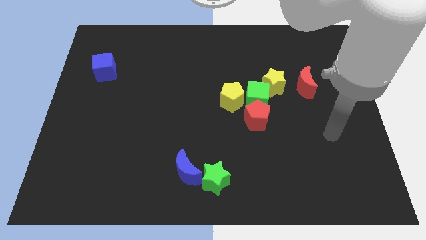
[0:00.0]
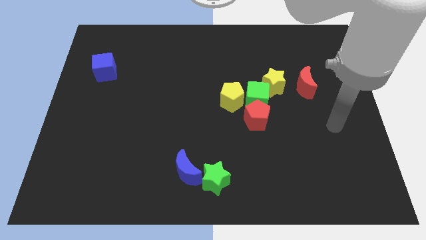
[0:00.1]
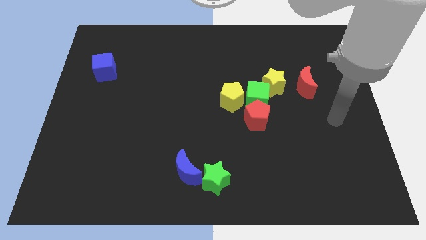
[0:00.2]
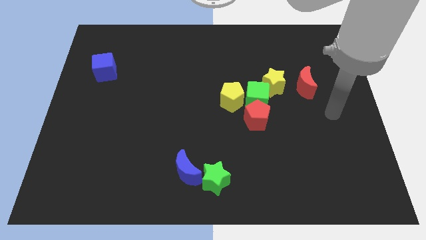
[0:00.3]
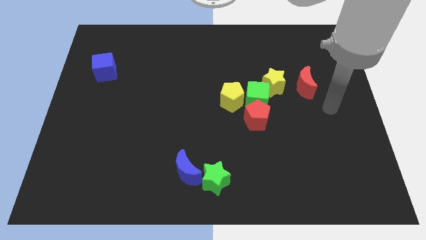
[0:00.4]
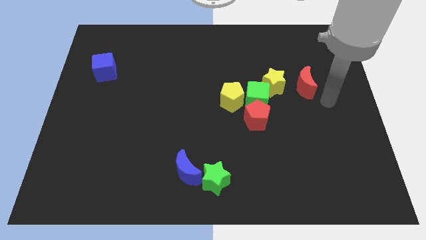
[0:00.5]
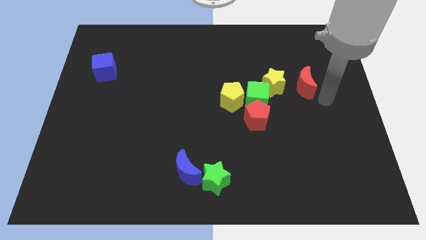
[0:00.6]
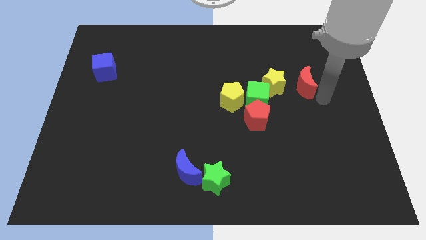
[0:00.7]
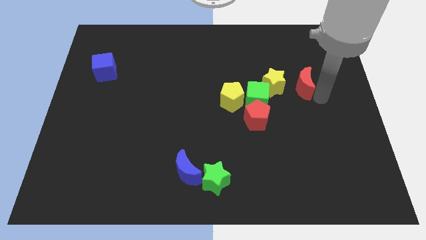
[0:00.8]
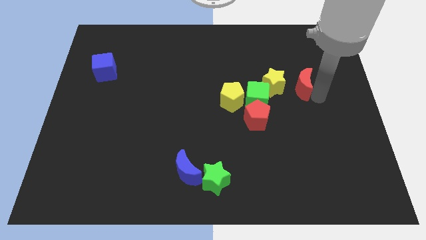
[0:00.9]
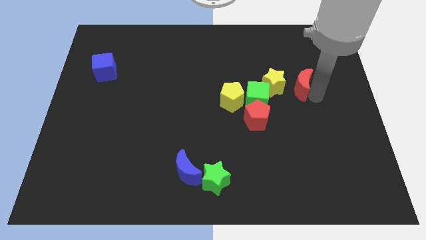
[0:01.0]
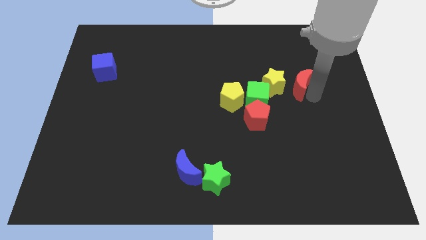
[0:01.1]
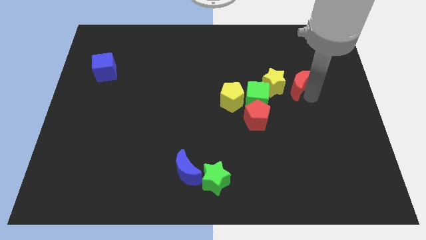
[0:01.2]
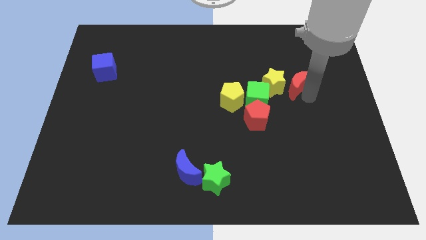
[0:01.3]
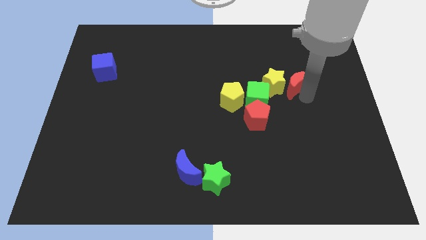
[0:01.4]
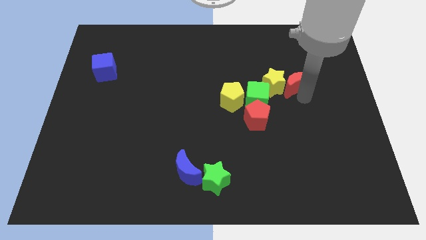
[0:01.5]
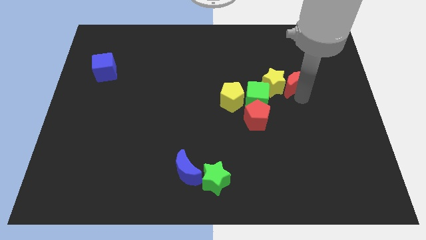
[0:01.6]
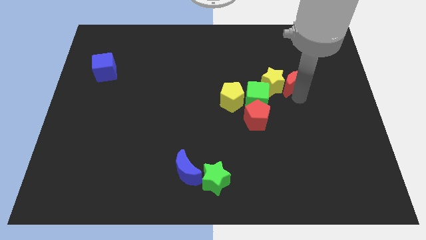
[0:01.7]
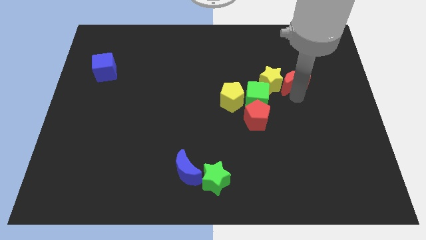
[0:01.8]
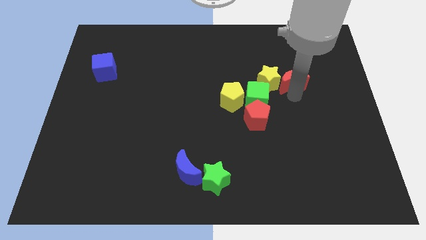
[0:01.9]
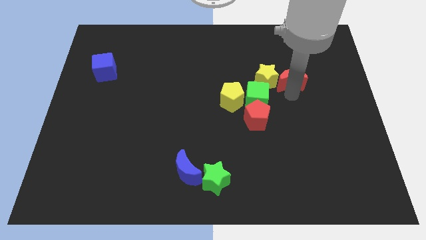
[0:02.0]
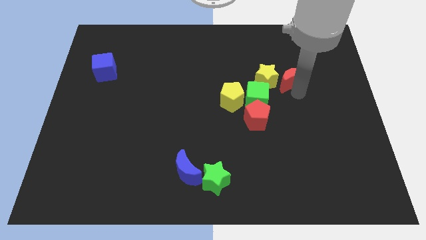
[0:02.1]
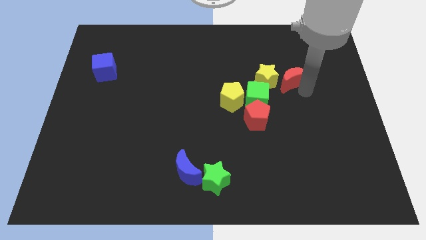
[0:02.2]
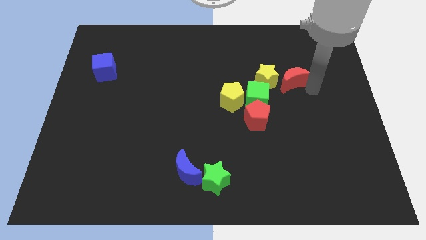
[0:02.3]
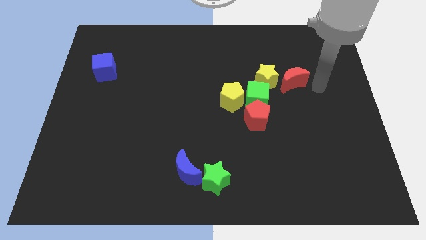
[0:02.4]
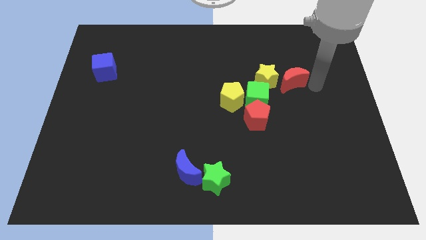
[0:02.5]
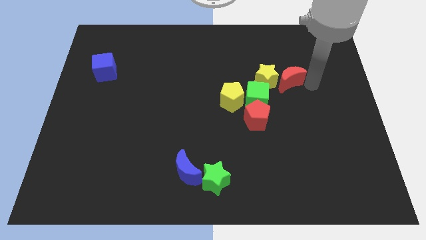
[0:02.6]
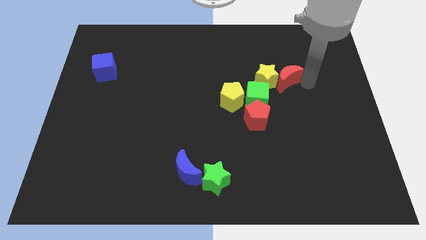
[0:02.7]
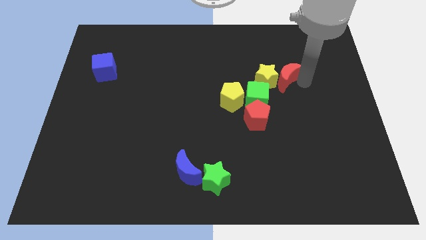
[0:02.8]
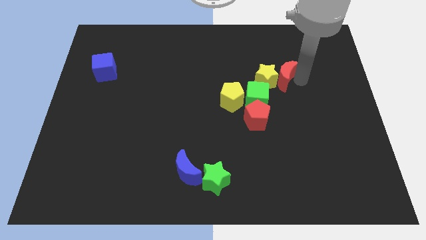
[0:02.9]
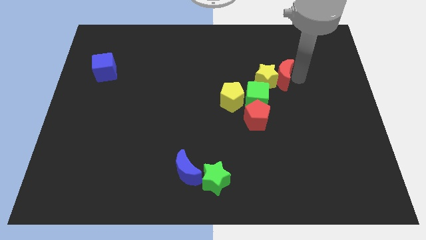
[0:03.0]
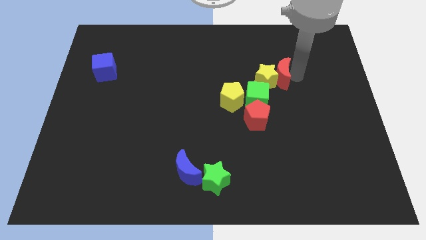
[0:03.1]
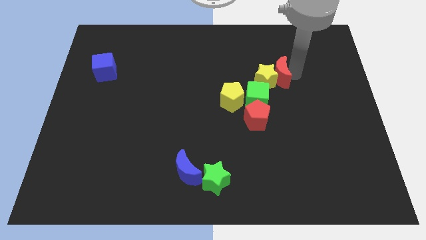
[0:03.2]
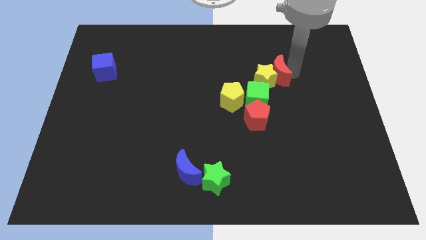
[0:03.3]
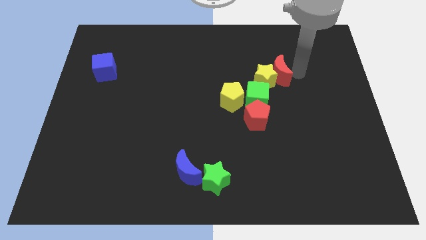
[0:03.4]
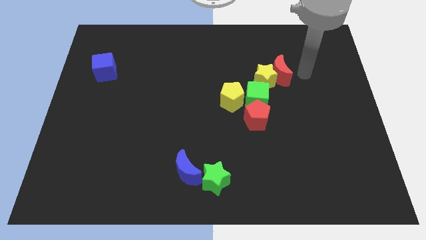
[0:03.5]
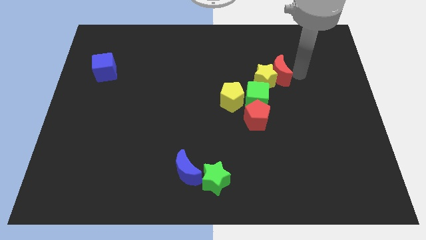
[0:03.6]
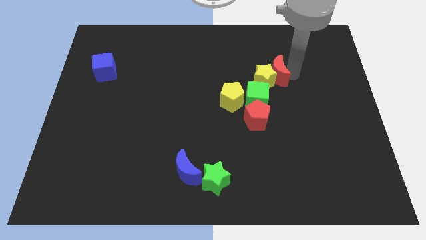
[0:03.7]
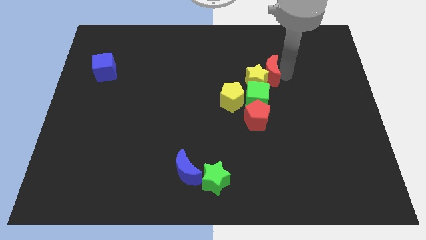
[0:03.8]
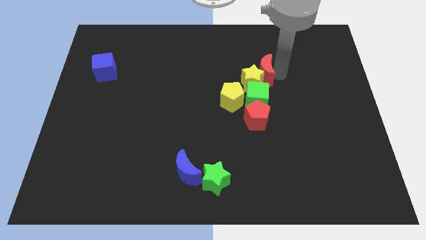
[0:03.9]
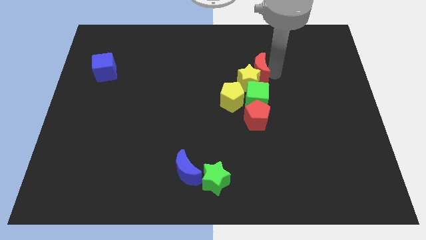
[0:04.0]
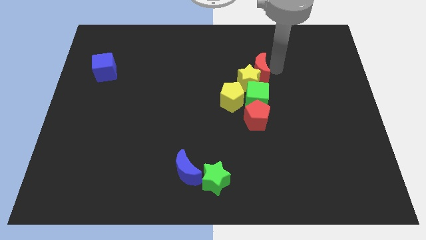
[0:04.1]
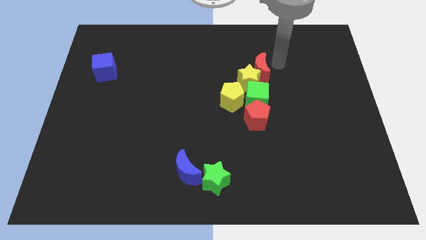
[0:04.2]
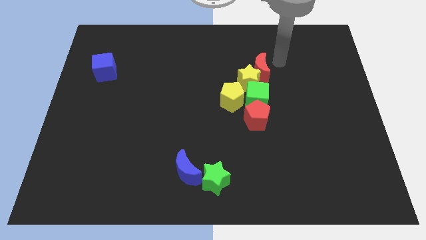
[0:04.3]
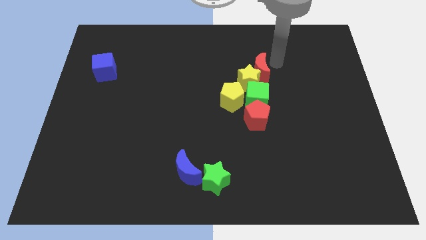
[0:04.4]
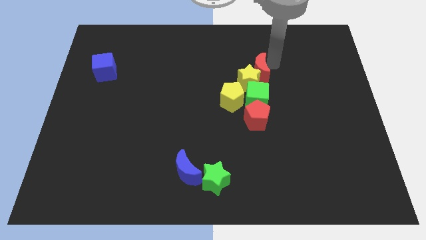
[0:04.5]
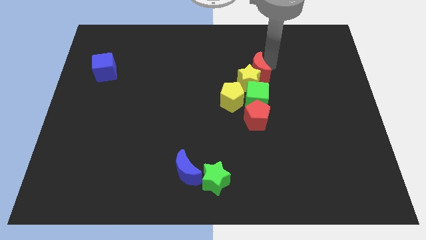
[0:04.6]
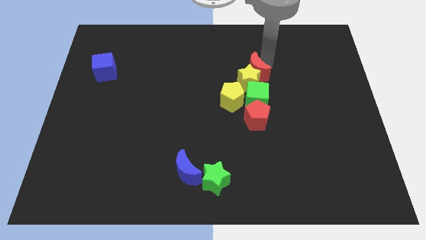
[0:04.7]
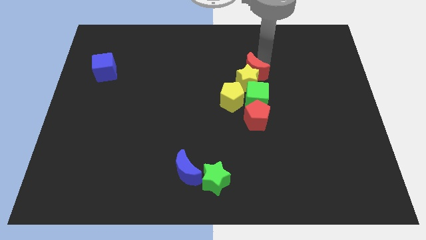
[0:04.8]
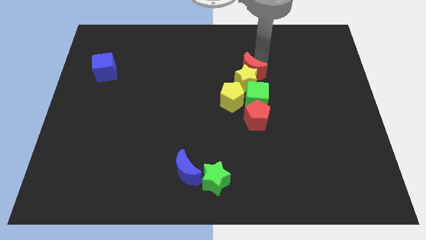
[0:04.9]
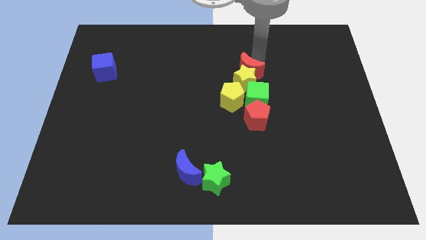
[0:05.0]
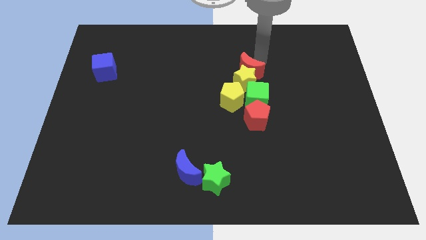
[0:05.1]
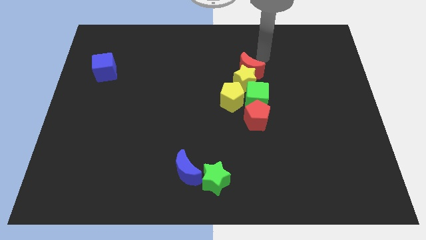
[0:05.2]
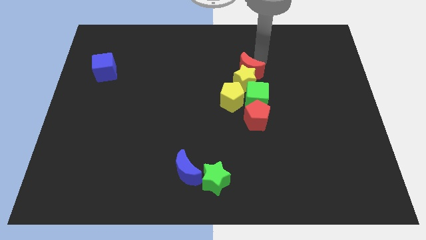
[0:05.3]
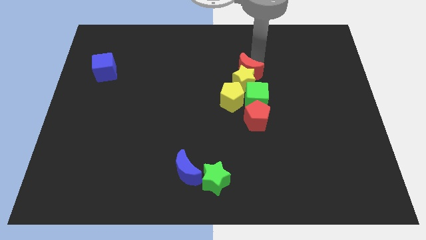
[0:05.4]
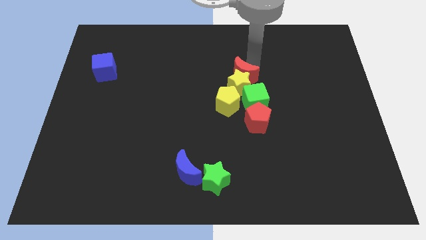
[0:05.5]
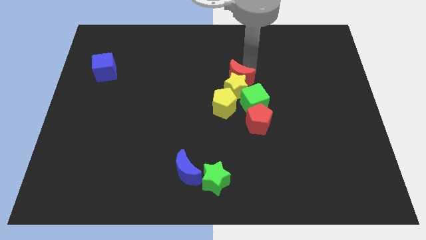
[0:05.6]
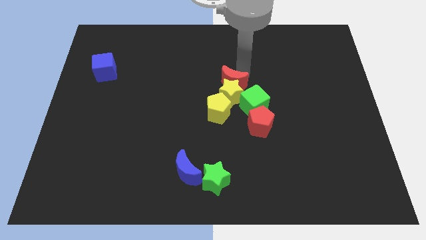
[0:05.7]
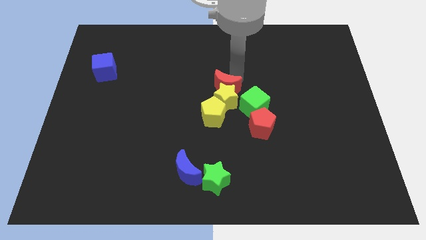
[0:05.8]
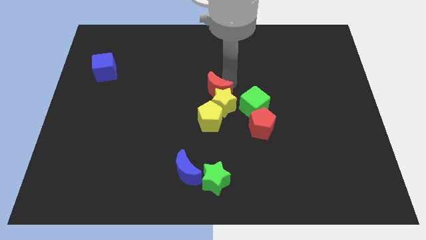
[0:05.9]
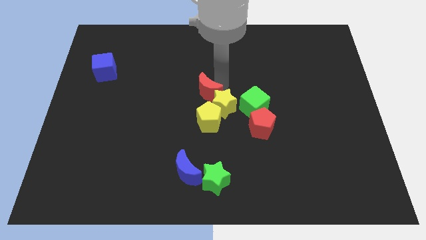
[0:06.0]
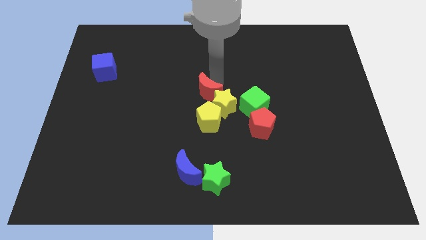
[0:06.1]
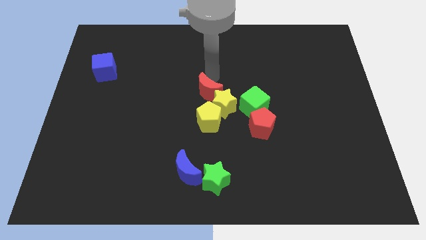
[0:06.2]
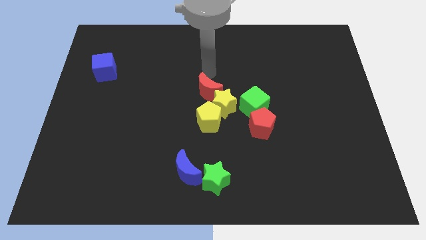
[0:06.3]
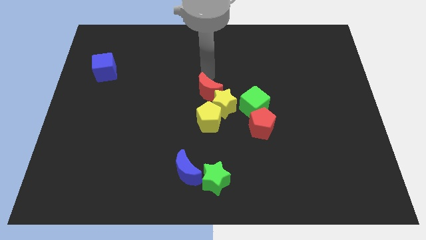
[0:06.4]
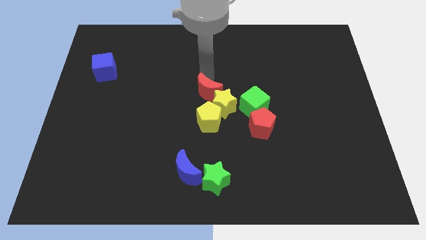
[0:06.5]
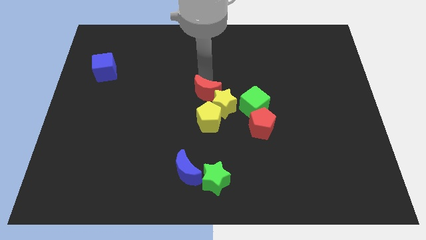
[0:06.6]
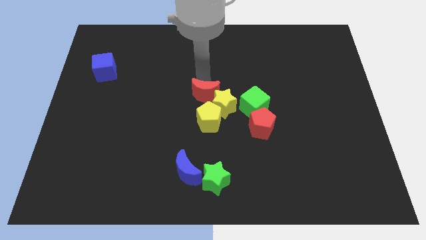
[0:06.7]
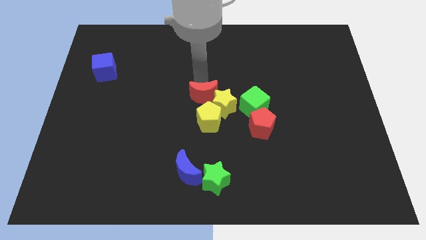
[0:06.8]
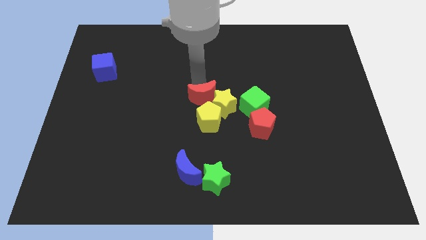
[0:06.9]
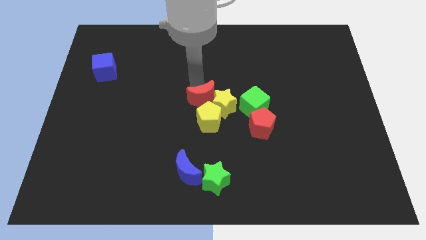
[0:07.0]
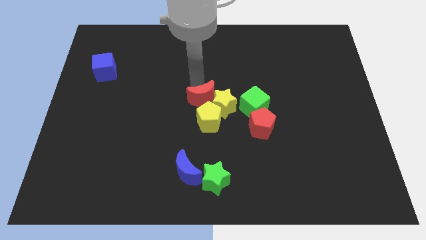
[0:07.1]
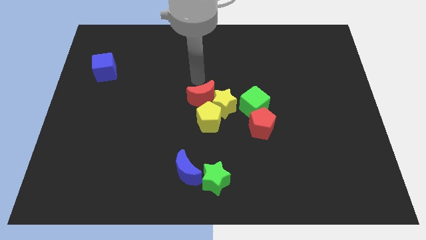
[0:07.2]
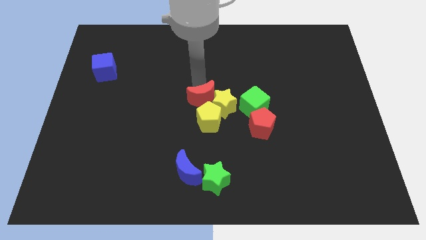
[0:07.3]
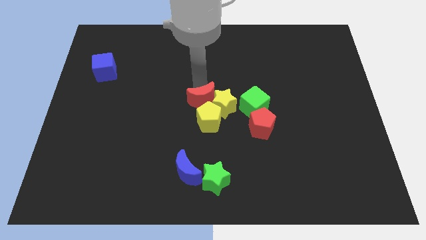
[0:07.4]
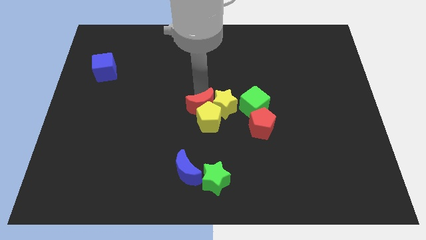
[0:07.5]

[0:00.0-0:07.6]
put the red moon next to the yellow pentagon
